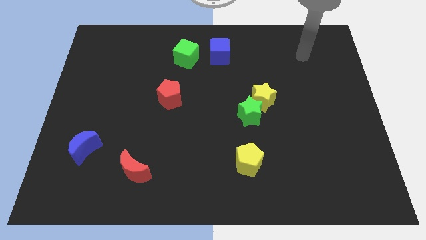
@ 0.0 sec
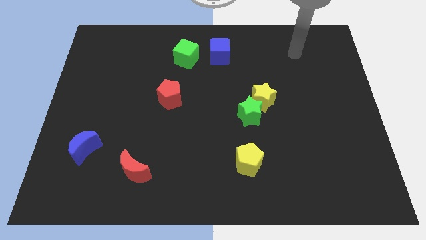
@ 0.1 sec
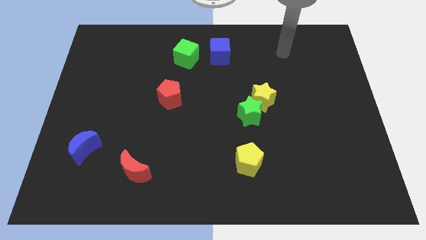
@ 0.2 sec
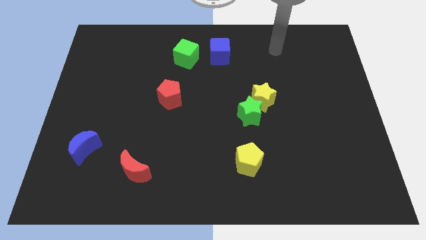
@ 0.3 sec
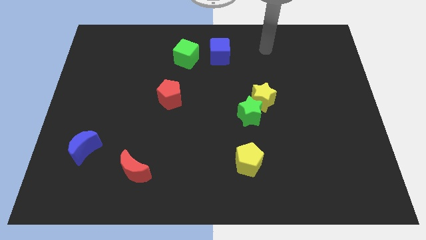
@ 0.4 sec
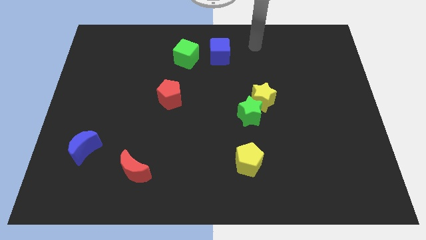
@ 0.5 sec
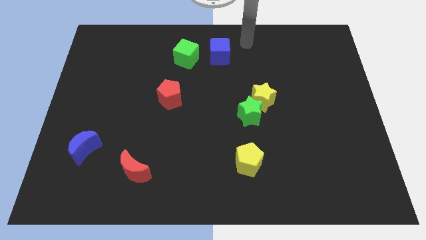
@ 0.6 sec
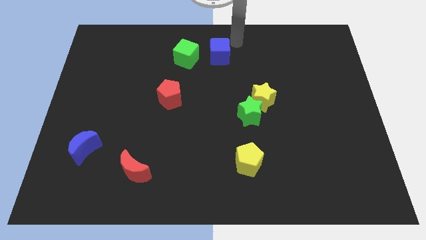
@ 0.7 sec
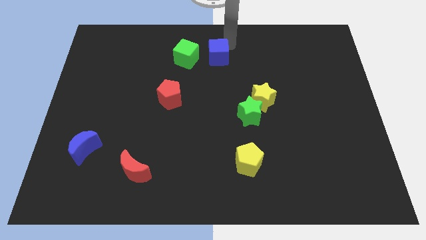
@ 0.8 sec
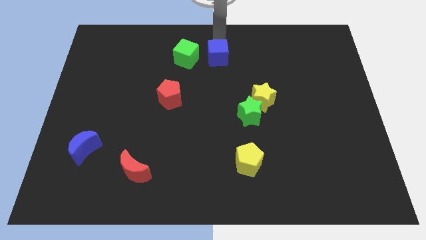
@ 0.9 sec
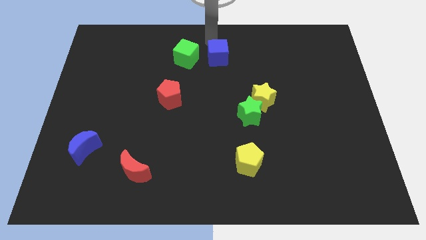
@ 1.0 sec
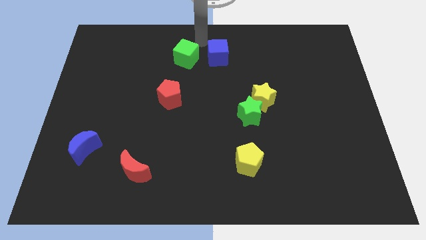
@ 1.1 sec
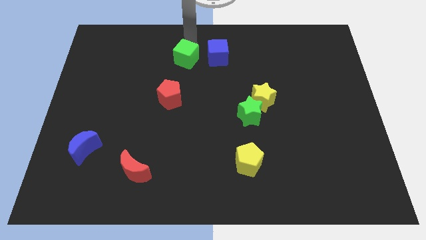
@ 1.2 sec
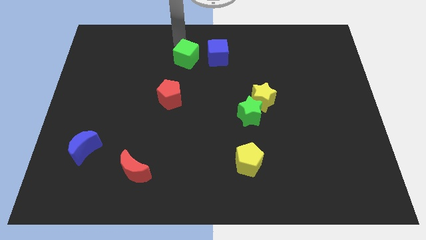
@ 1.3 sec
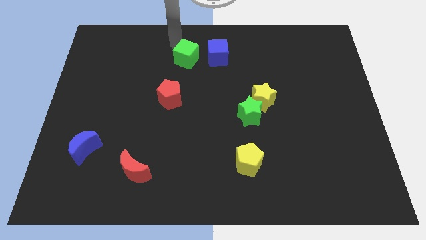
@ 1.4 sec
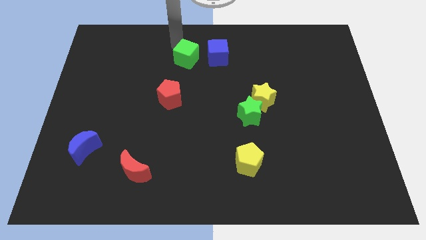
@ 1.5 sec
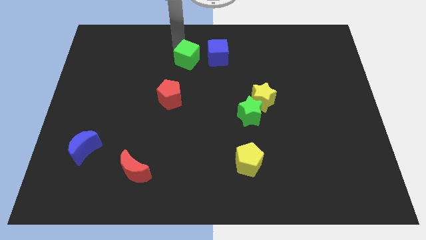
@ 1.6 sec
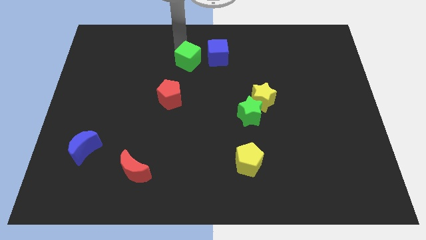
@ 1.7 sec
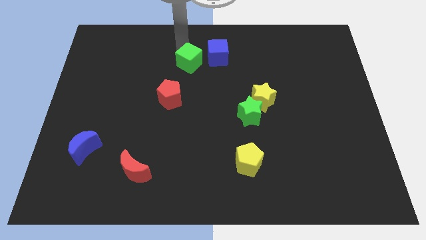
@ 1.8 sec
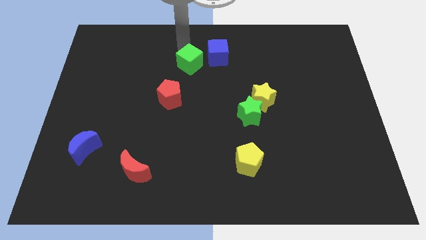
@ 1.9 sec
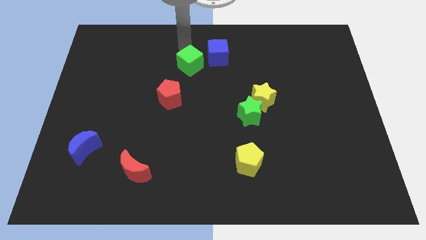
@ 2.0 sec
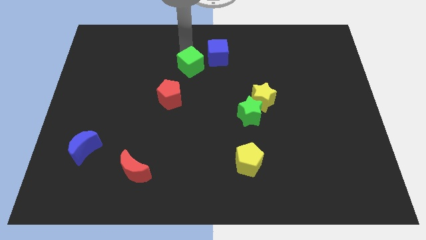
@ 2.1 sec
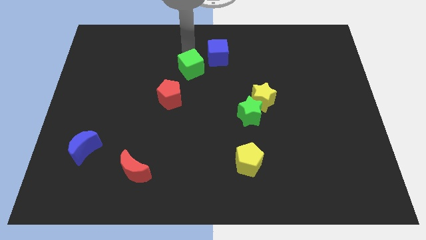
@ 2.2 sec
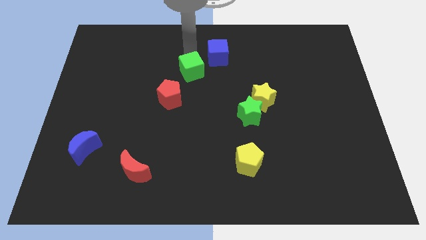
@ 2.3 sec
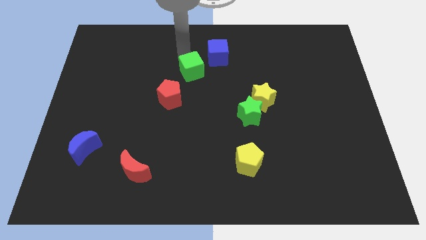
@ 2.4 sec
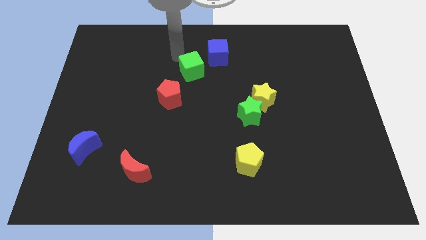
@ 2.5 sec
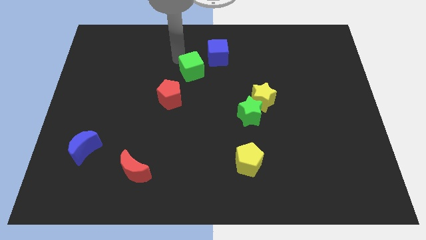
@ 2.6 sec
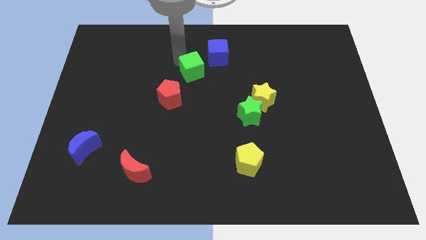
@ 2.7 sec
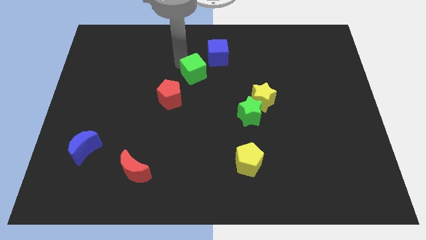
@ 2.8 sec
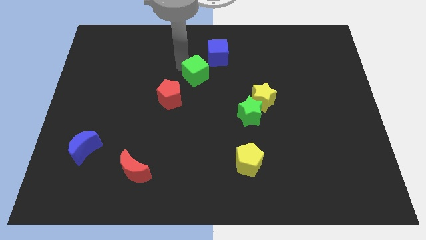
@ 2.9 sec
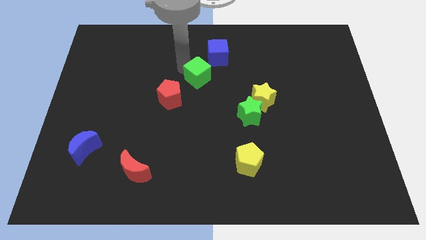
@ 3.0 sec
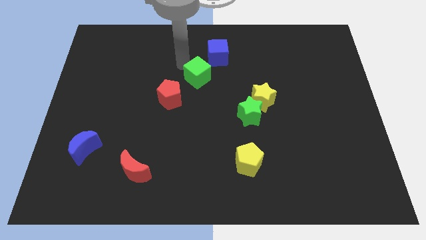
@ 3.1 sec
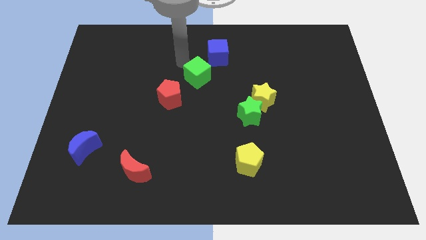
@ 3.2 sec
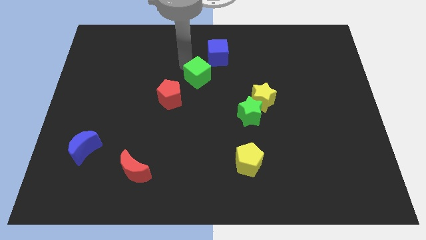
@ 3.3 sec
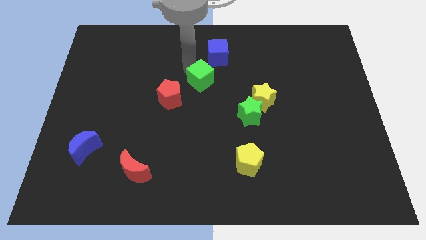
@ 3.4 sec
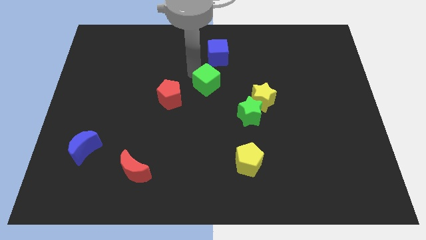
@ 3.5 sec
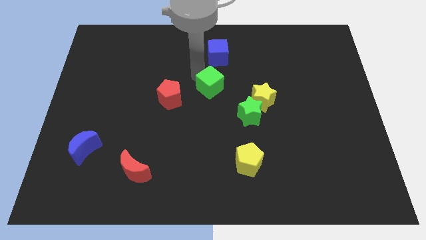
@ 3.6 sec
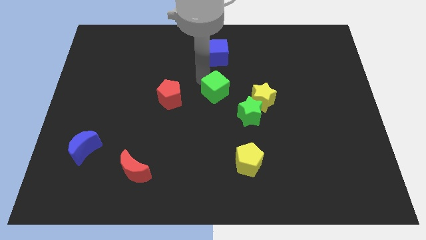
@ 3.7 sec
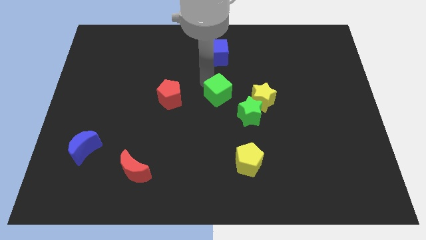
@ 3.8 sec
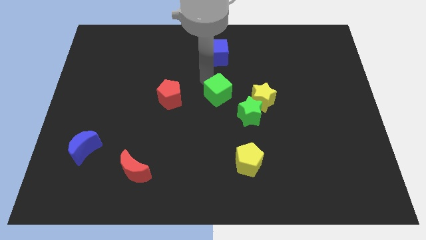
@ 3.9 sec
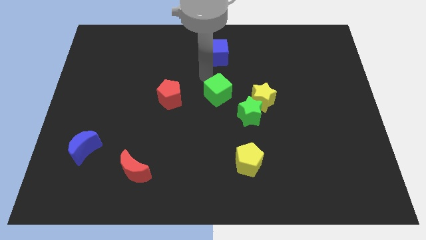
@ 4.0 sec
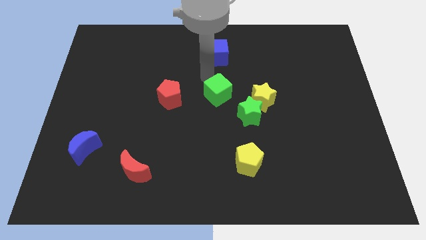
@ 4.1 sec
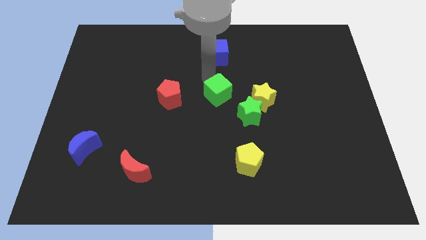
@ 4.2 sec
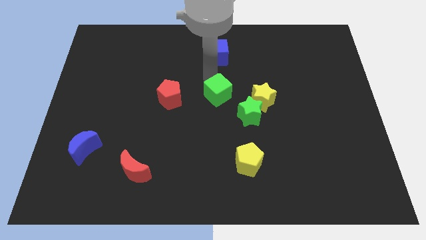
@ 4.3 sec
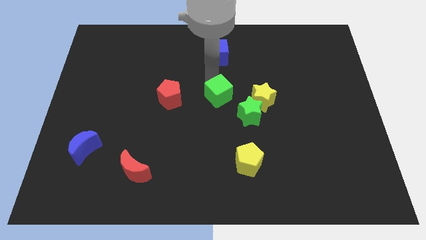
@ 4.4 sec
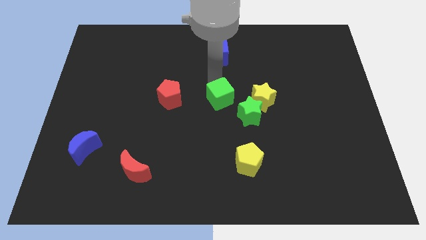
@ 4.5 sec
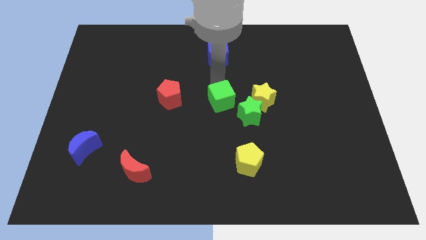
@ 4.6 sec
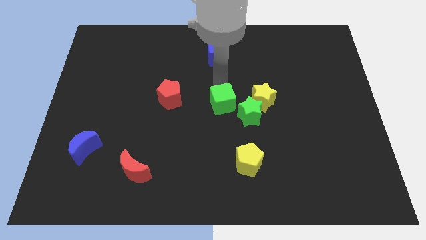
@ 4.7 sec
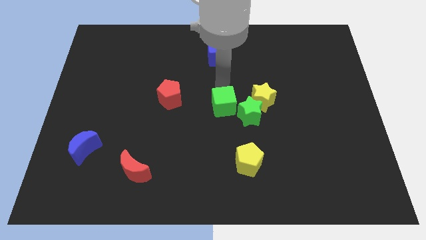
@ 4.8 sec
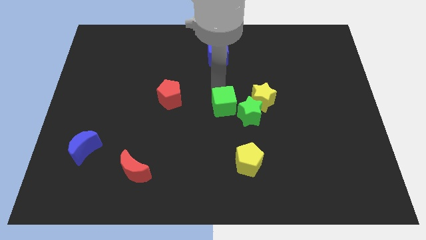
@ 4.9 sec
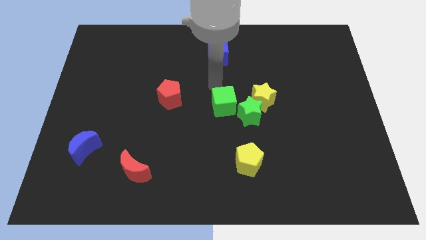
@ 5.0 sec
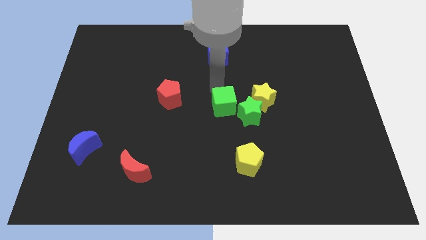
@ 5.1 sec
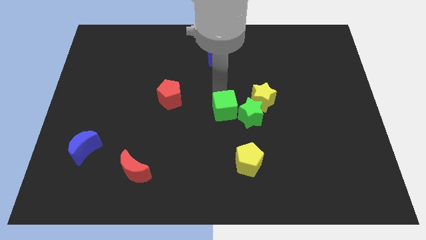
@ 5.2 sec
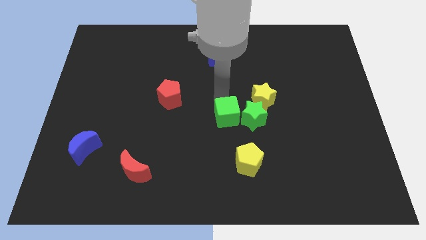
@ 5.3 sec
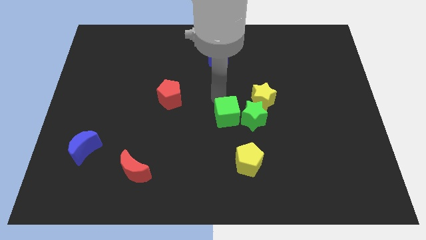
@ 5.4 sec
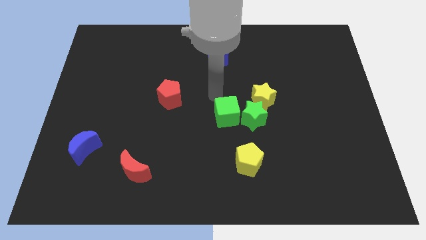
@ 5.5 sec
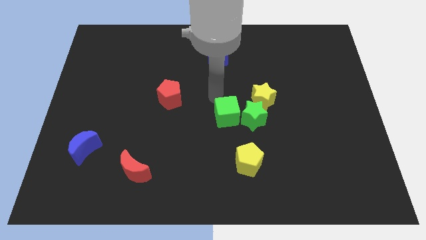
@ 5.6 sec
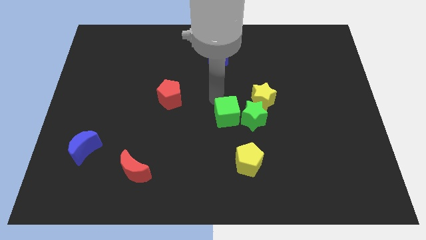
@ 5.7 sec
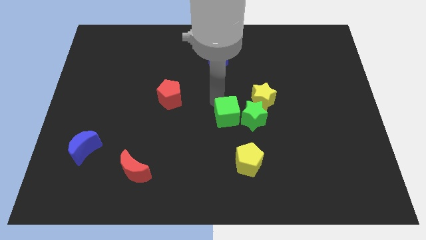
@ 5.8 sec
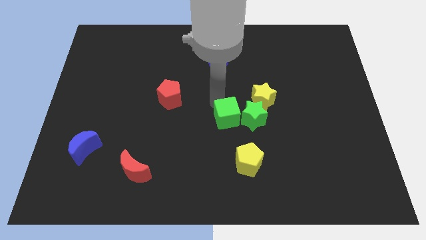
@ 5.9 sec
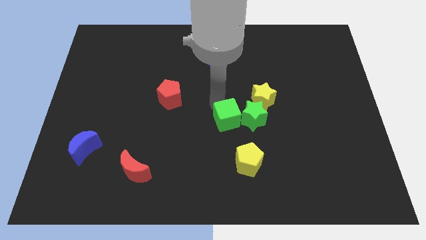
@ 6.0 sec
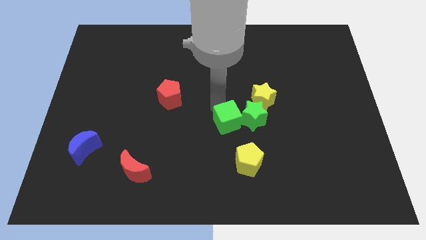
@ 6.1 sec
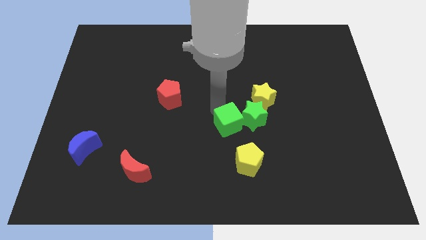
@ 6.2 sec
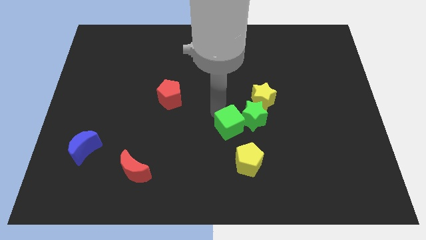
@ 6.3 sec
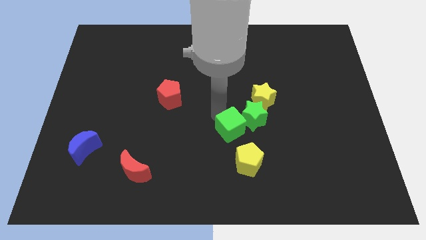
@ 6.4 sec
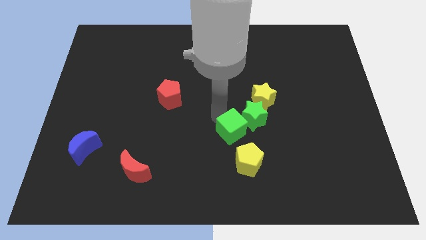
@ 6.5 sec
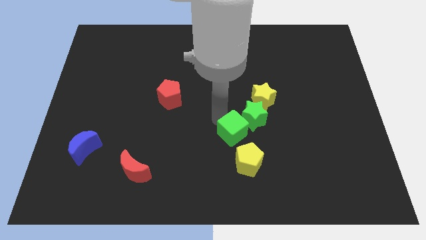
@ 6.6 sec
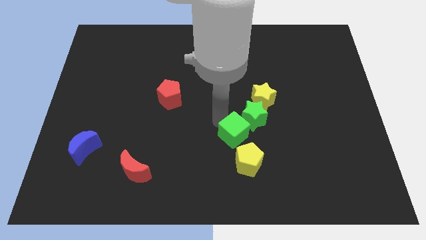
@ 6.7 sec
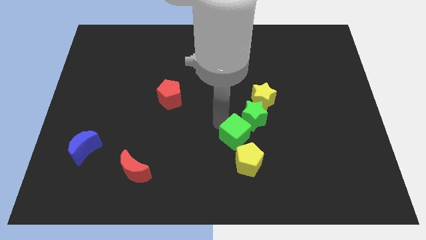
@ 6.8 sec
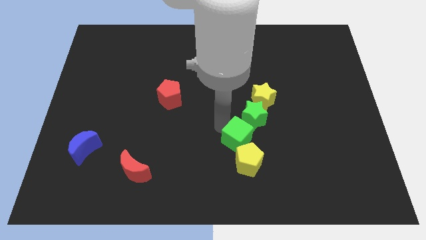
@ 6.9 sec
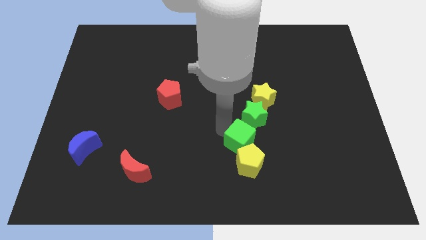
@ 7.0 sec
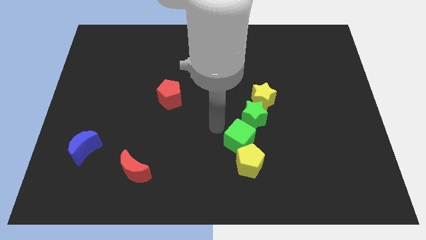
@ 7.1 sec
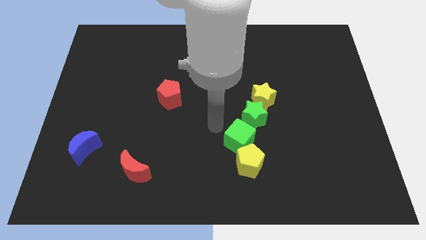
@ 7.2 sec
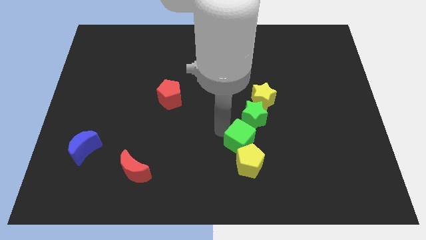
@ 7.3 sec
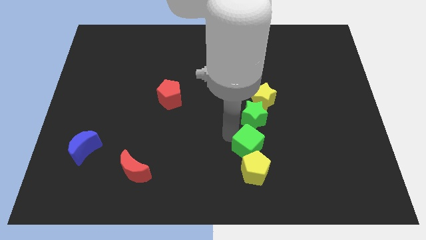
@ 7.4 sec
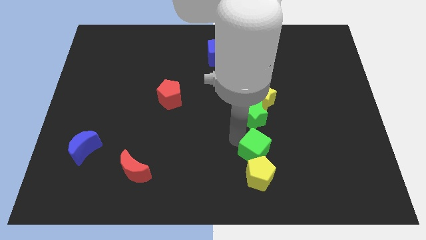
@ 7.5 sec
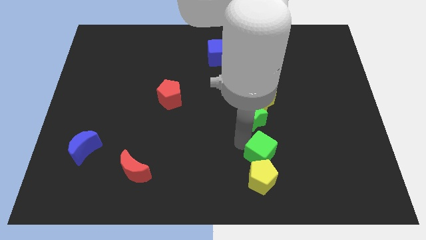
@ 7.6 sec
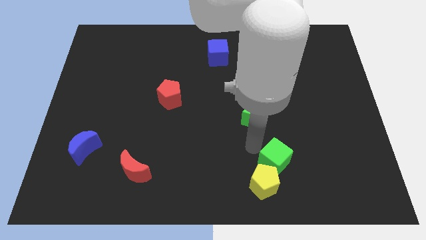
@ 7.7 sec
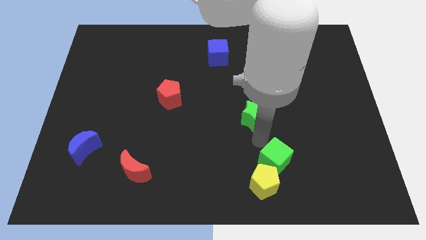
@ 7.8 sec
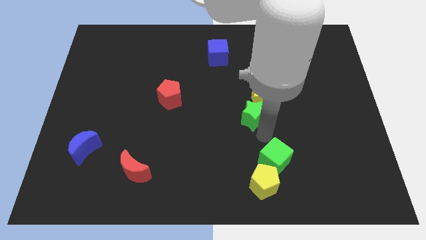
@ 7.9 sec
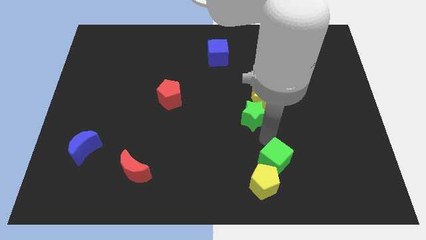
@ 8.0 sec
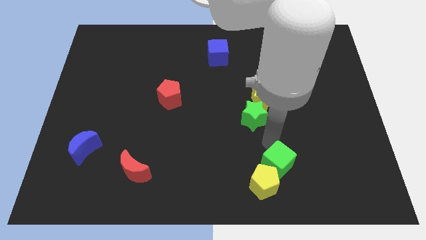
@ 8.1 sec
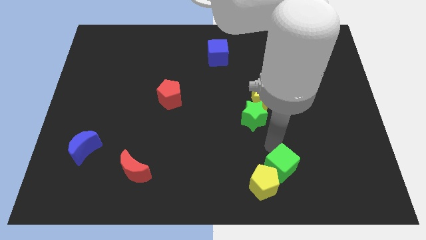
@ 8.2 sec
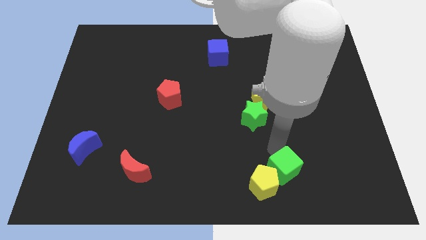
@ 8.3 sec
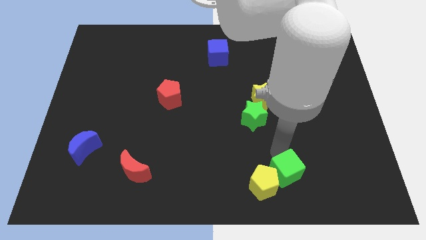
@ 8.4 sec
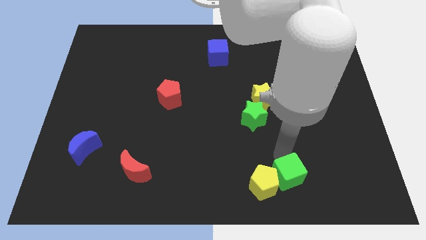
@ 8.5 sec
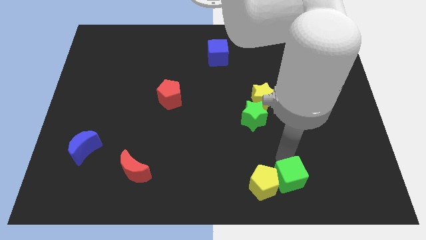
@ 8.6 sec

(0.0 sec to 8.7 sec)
move the green cube diagonally down and to the right of the yellow pentagon
